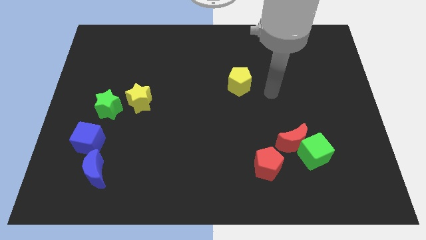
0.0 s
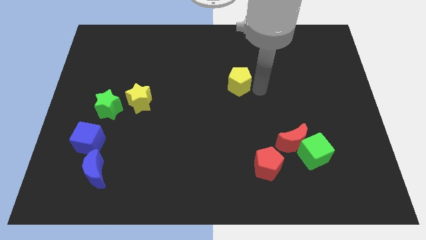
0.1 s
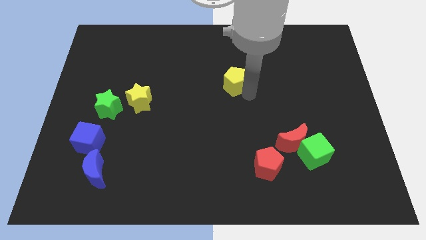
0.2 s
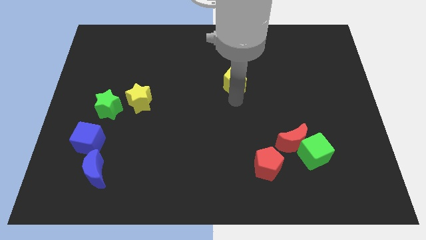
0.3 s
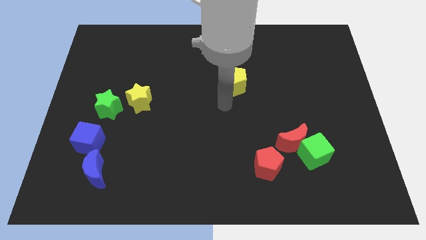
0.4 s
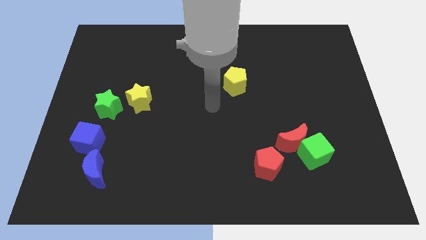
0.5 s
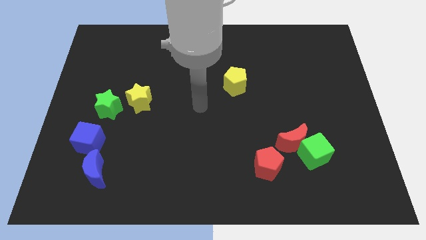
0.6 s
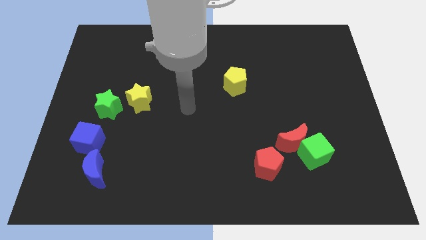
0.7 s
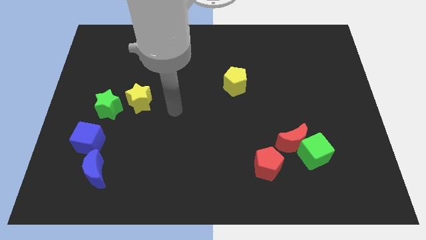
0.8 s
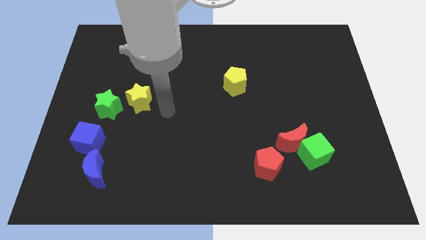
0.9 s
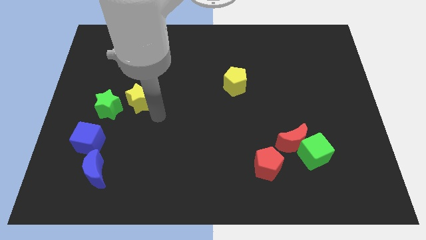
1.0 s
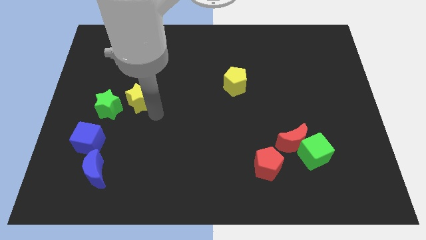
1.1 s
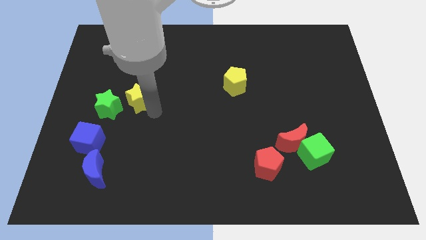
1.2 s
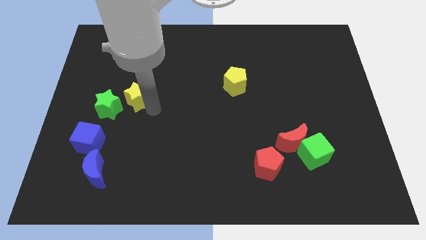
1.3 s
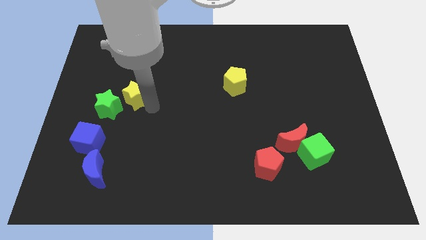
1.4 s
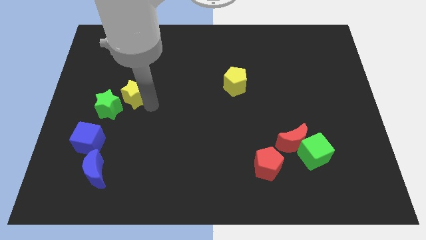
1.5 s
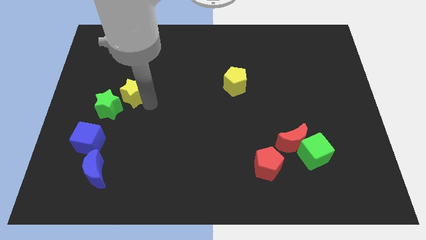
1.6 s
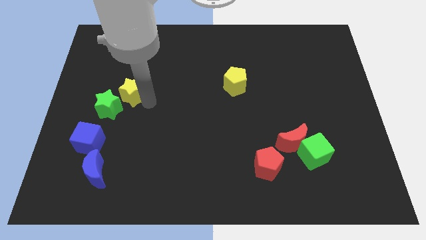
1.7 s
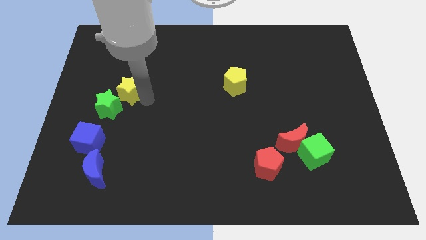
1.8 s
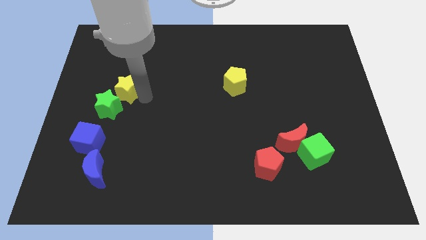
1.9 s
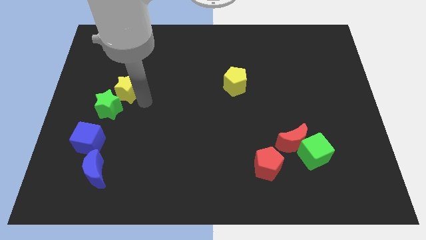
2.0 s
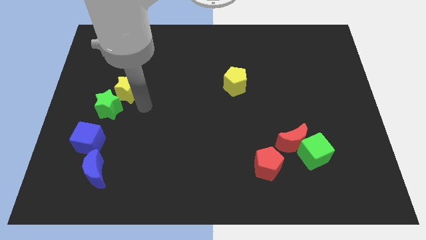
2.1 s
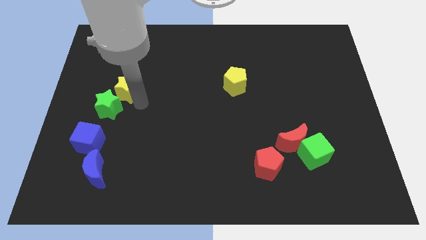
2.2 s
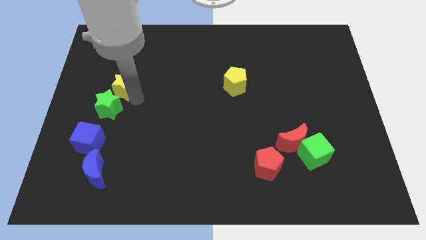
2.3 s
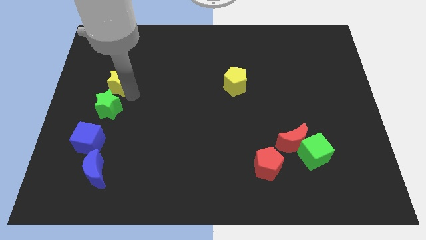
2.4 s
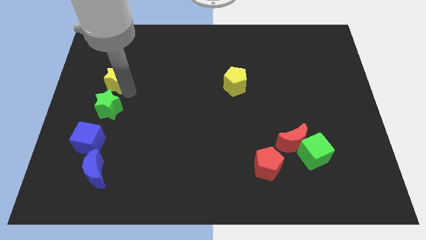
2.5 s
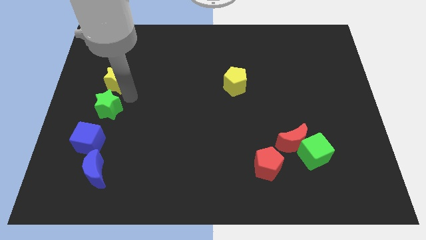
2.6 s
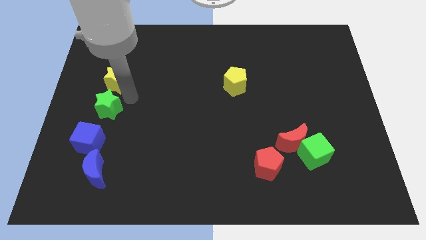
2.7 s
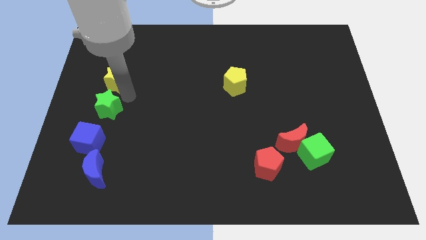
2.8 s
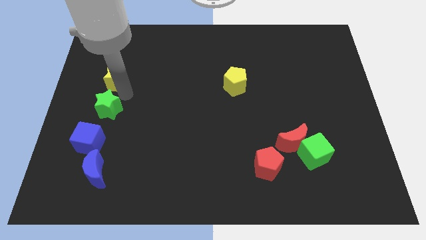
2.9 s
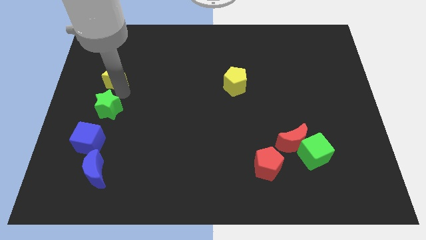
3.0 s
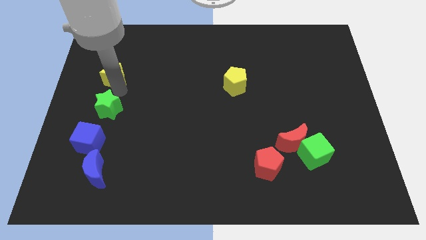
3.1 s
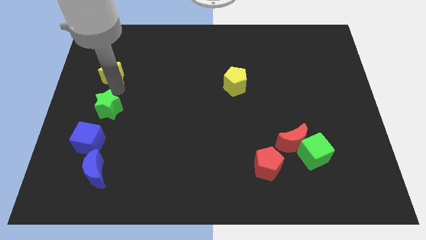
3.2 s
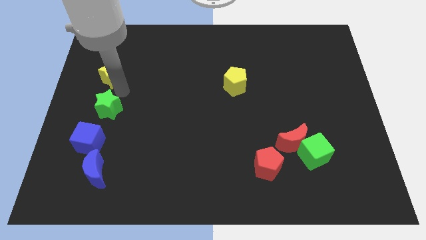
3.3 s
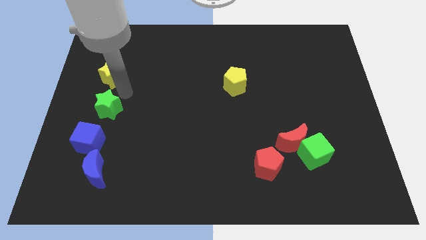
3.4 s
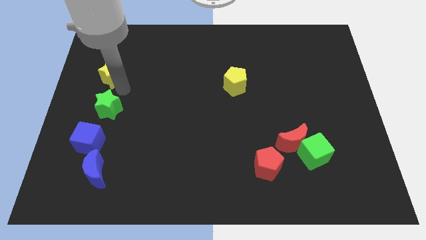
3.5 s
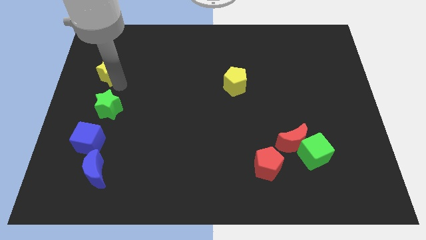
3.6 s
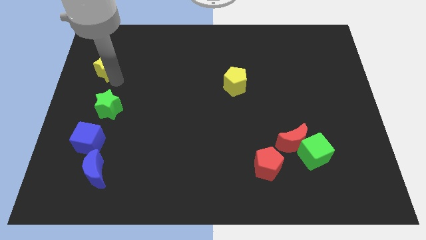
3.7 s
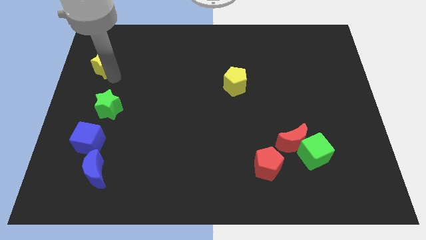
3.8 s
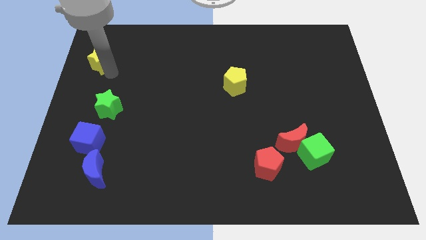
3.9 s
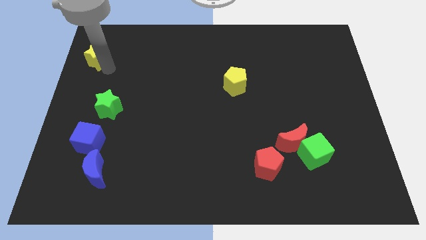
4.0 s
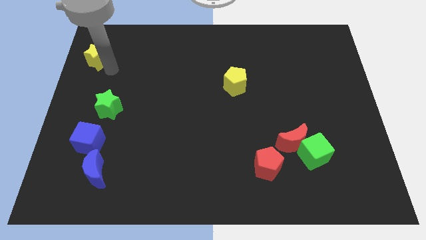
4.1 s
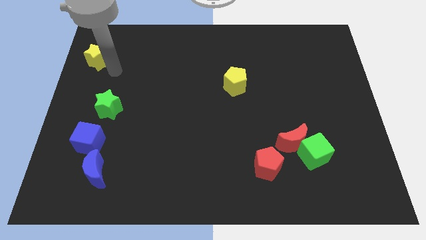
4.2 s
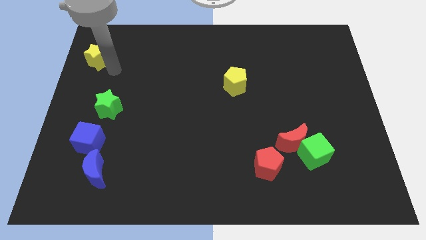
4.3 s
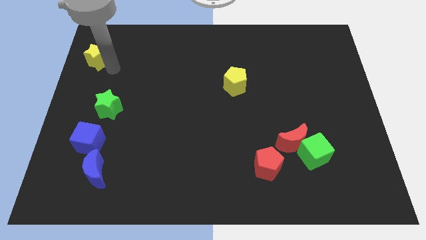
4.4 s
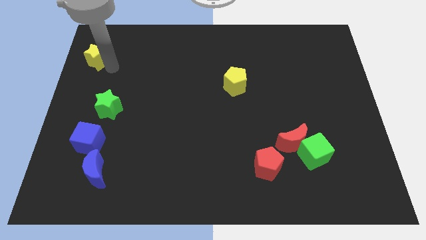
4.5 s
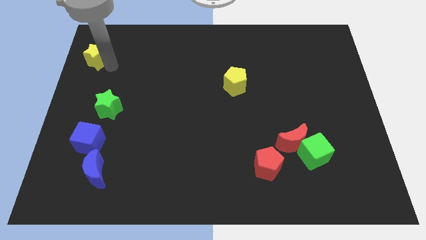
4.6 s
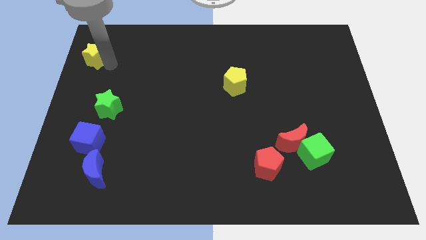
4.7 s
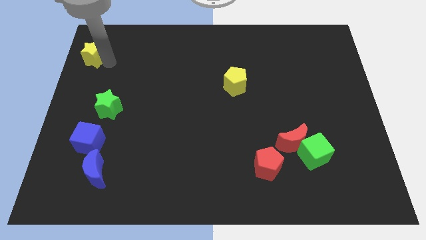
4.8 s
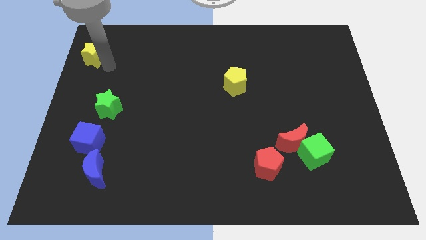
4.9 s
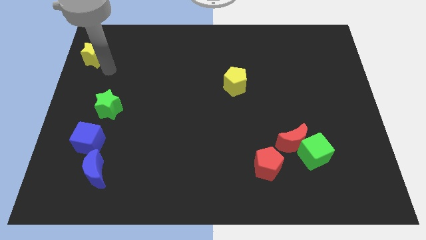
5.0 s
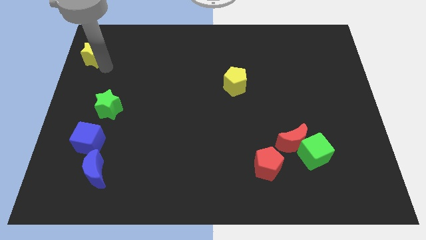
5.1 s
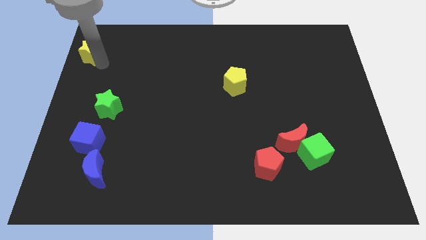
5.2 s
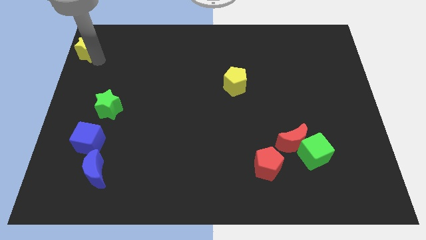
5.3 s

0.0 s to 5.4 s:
push the yellow star to the top left corner

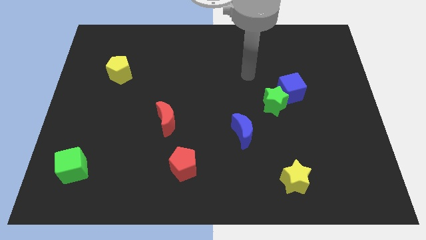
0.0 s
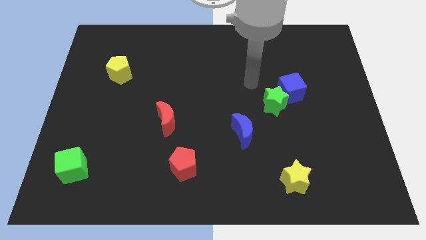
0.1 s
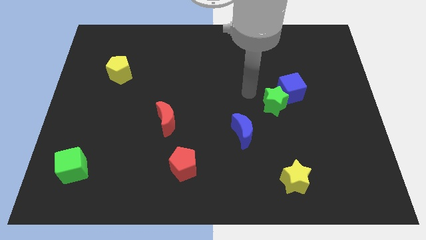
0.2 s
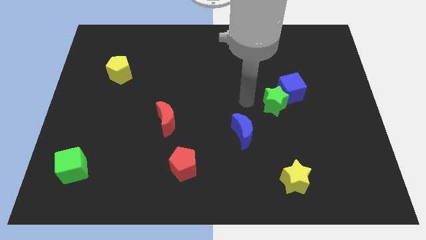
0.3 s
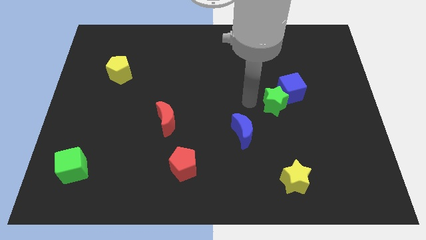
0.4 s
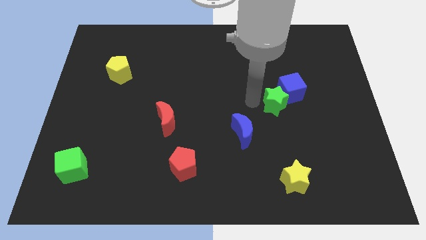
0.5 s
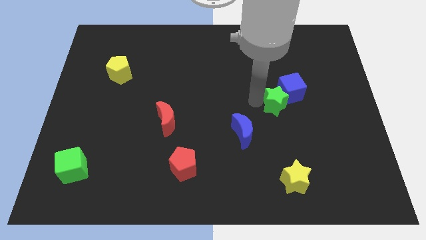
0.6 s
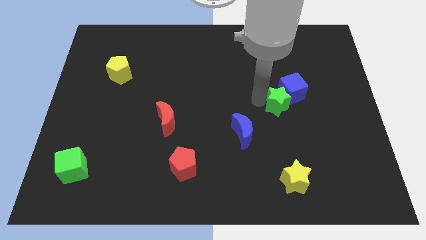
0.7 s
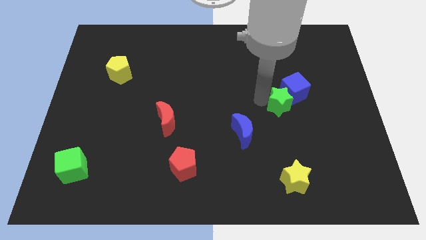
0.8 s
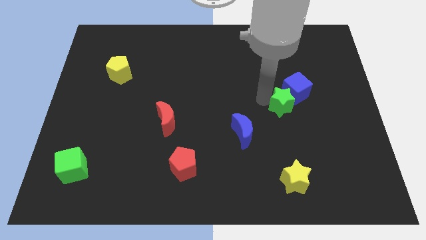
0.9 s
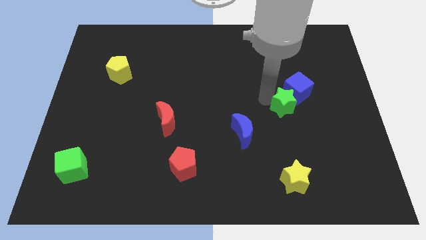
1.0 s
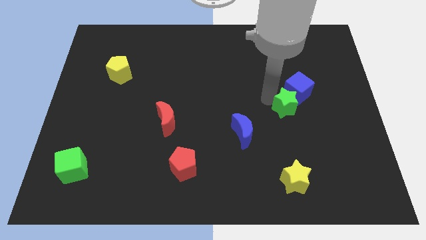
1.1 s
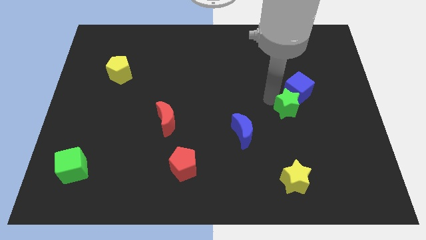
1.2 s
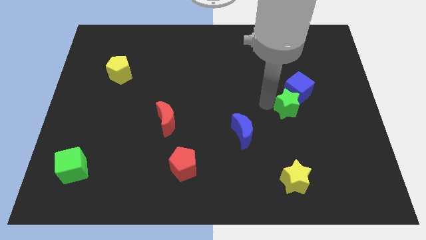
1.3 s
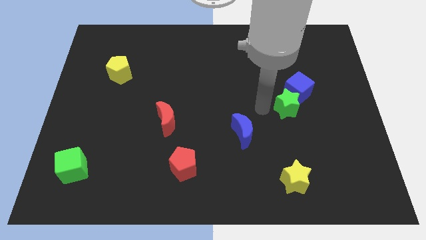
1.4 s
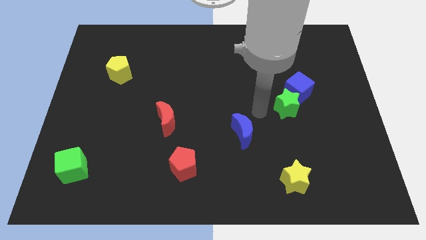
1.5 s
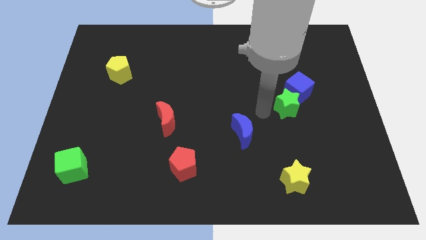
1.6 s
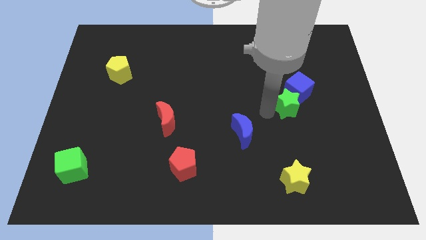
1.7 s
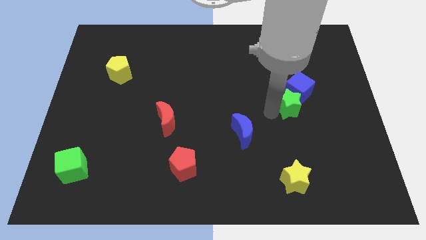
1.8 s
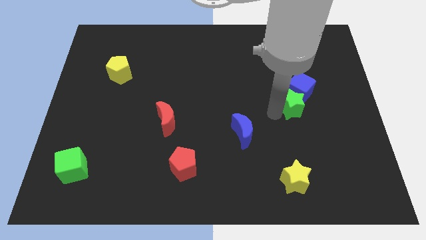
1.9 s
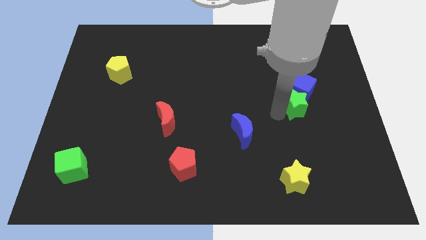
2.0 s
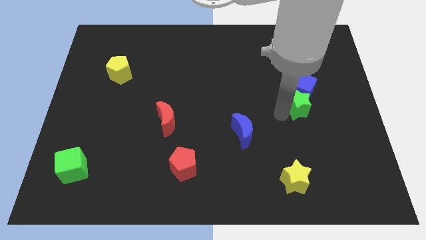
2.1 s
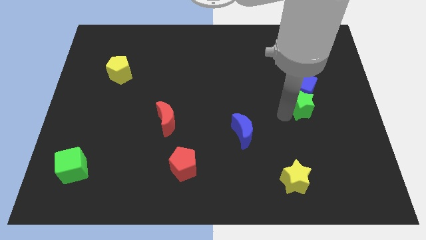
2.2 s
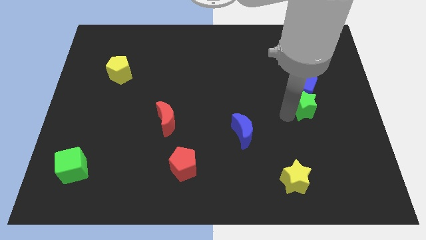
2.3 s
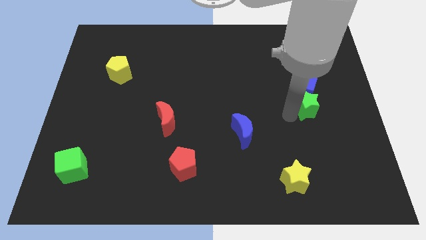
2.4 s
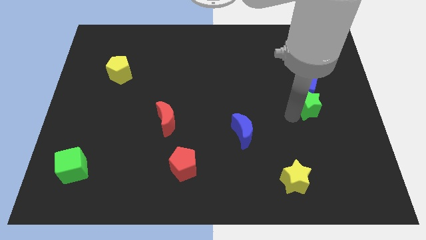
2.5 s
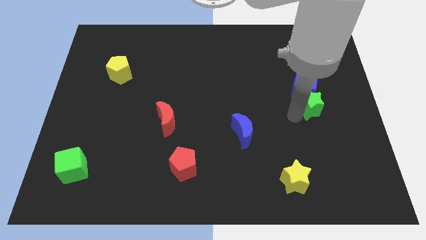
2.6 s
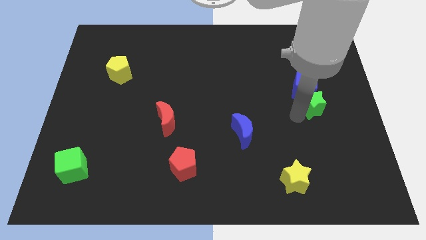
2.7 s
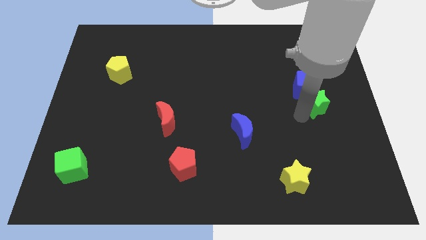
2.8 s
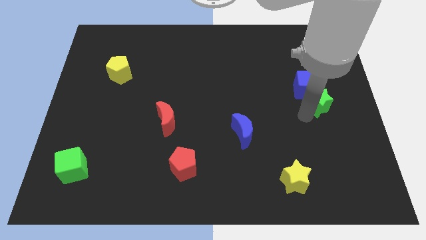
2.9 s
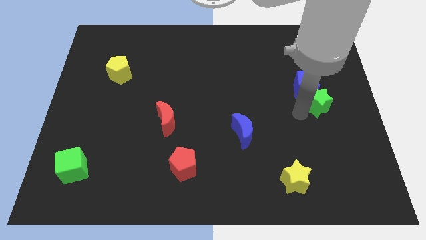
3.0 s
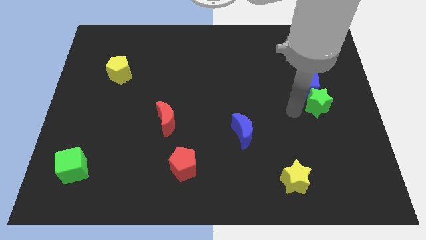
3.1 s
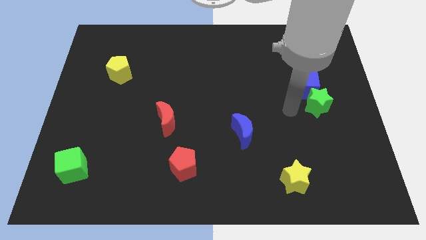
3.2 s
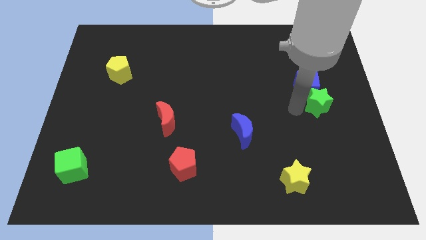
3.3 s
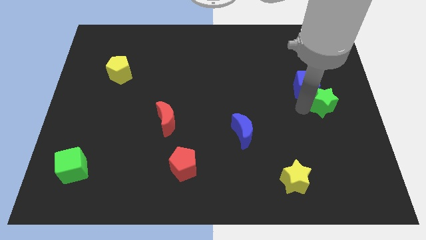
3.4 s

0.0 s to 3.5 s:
slide the green star to the right side
